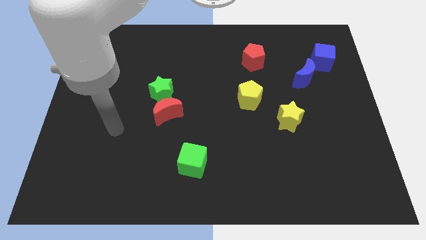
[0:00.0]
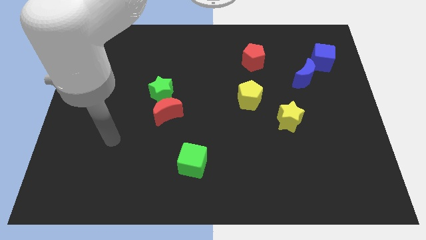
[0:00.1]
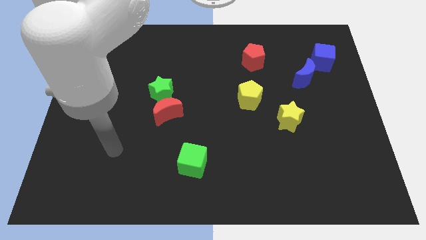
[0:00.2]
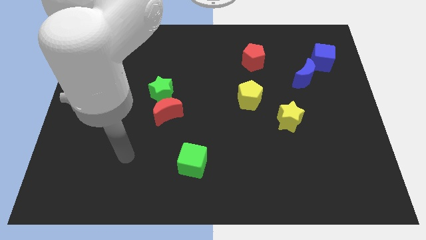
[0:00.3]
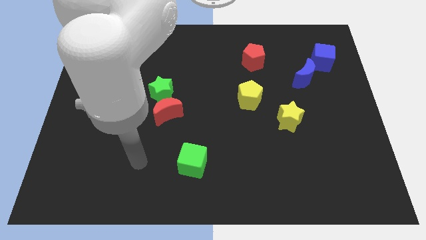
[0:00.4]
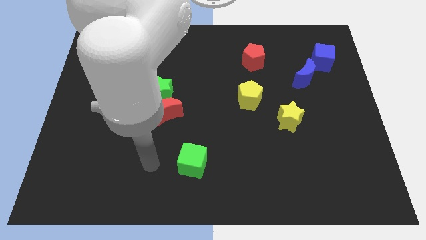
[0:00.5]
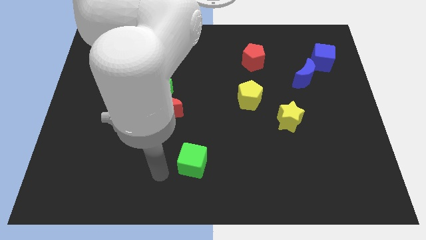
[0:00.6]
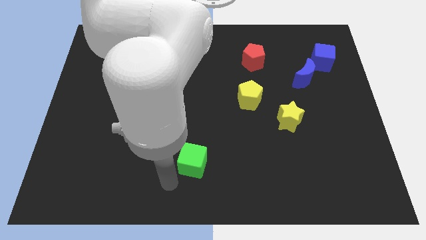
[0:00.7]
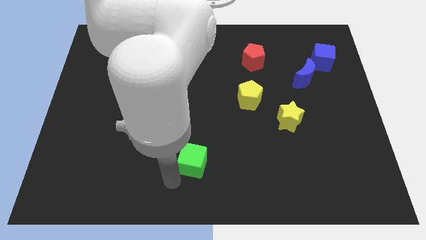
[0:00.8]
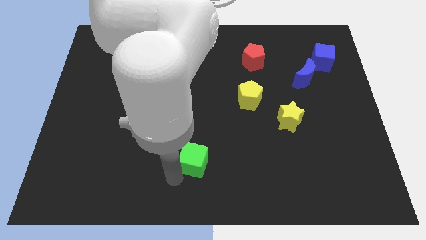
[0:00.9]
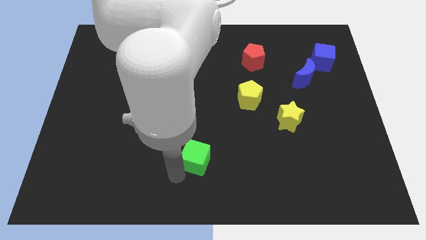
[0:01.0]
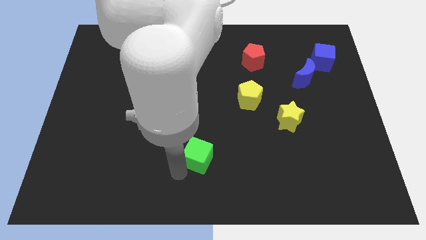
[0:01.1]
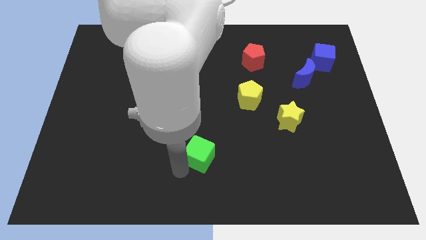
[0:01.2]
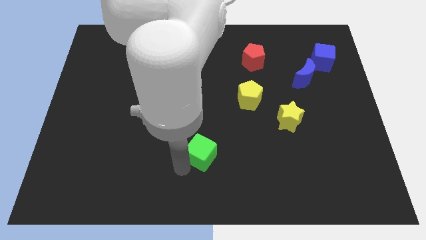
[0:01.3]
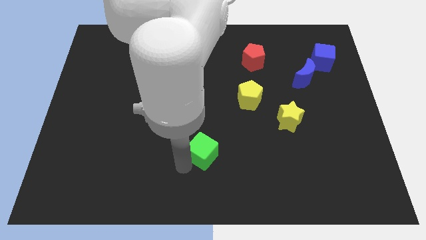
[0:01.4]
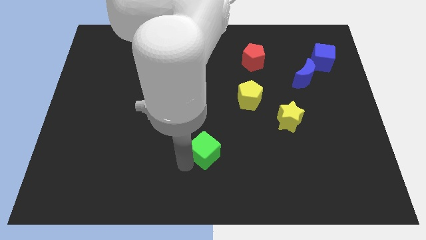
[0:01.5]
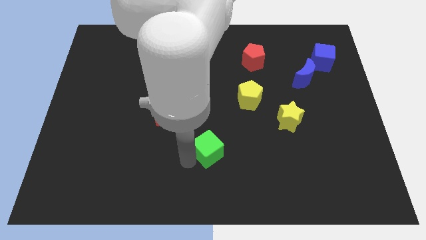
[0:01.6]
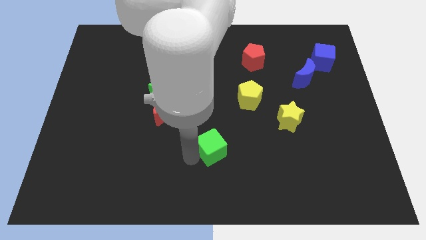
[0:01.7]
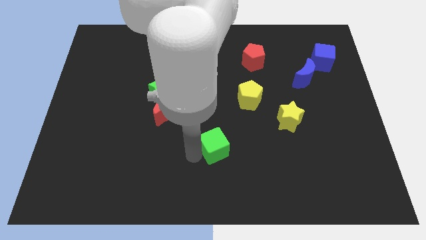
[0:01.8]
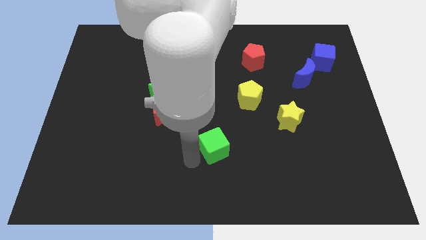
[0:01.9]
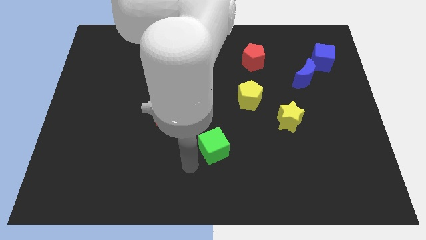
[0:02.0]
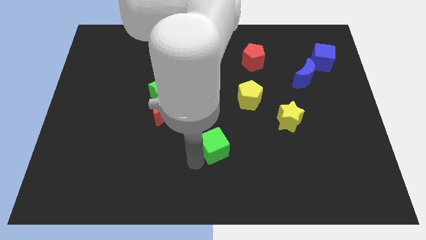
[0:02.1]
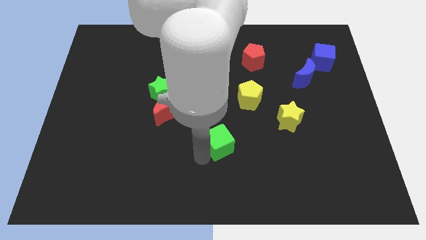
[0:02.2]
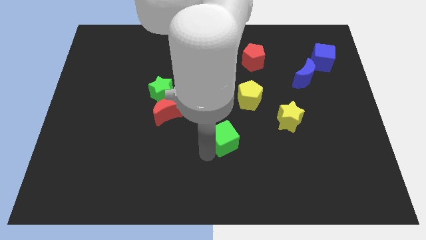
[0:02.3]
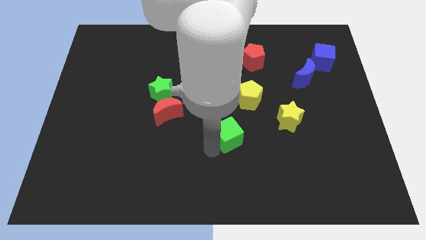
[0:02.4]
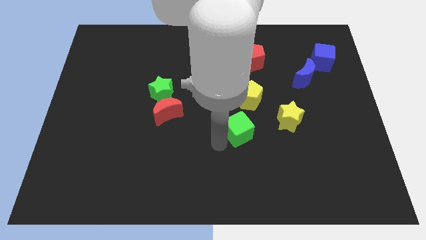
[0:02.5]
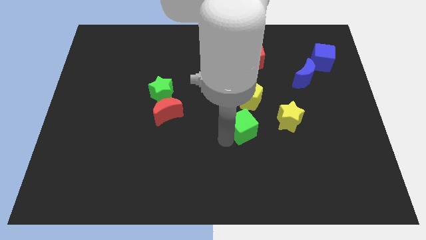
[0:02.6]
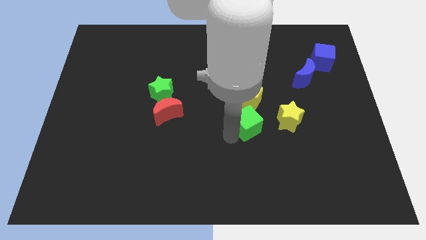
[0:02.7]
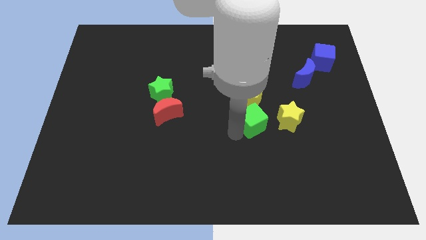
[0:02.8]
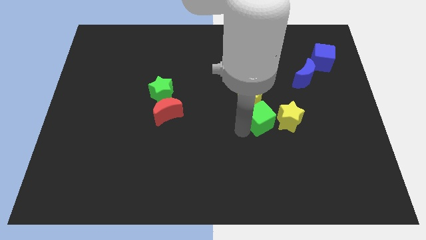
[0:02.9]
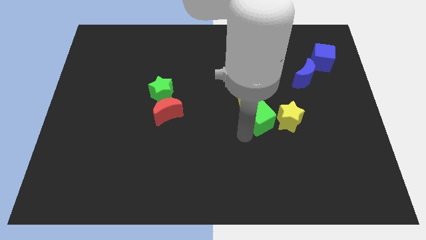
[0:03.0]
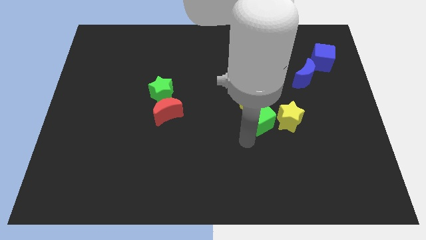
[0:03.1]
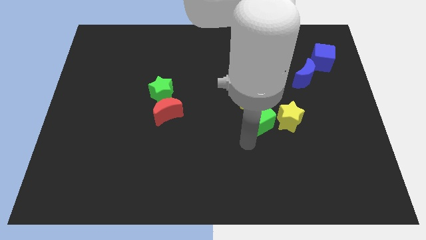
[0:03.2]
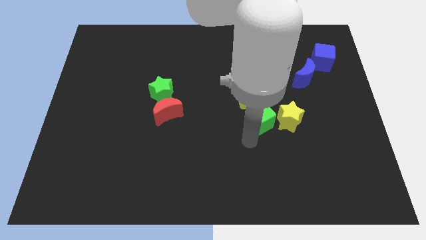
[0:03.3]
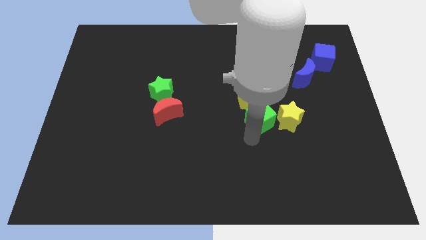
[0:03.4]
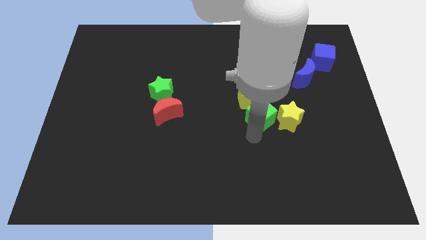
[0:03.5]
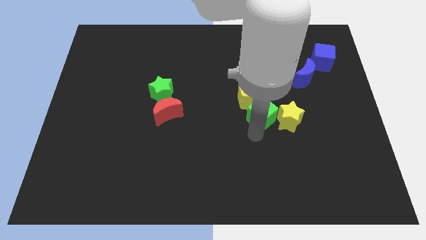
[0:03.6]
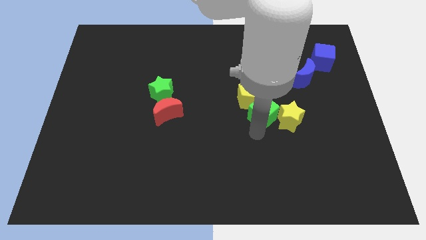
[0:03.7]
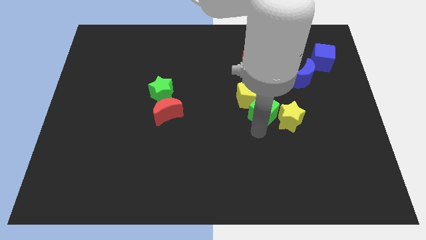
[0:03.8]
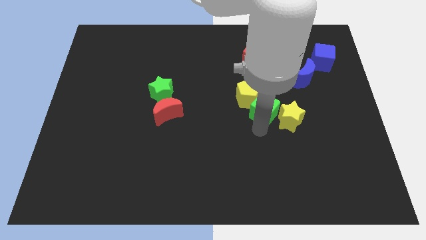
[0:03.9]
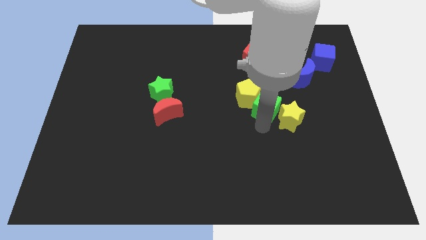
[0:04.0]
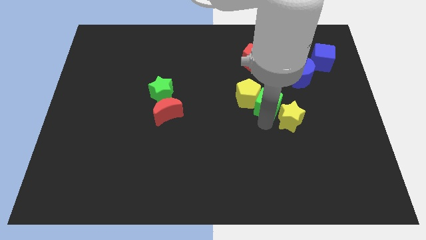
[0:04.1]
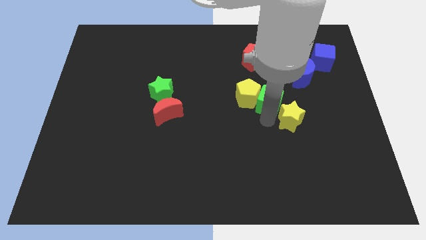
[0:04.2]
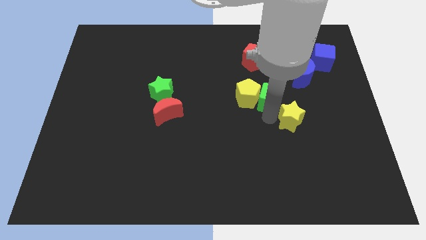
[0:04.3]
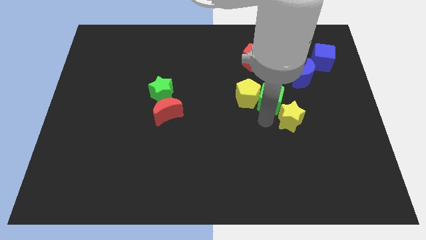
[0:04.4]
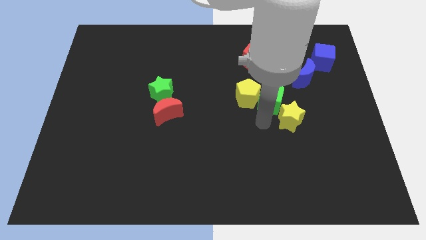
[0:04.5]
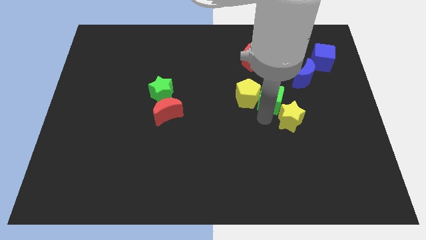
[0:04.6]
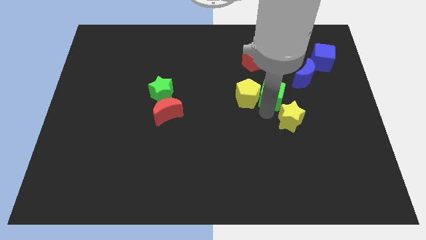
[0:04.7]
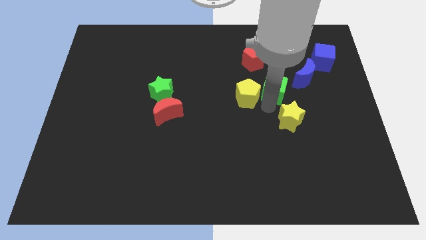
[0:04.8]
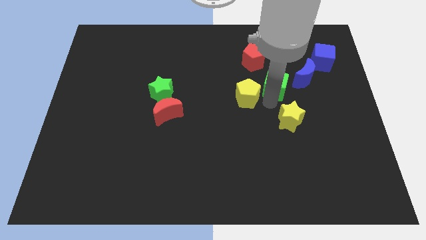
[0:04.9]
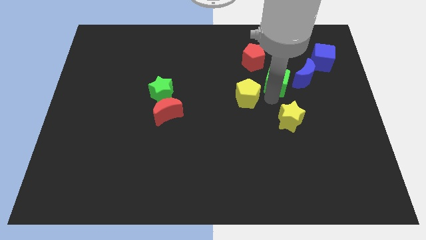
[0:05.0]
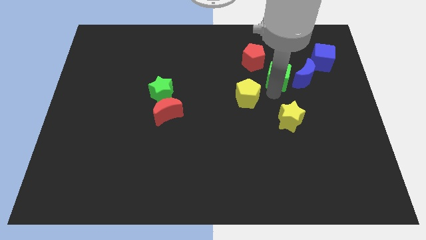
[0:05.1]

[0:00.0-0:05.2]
push the green cube to the top left of the blue moon

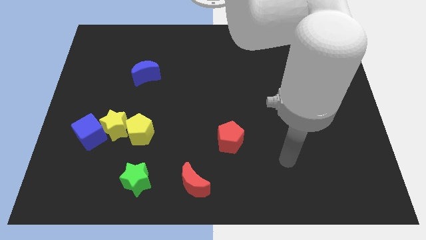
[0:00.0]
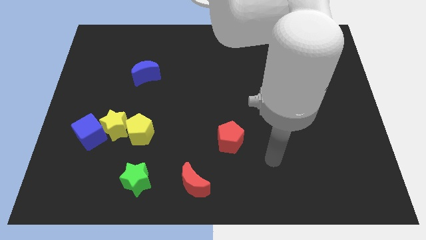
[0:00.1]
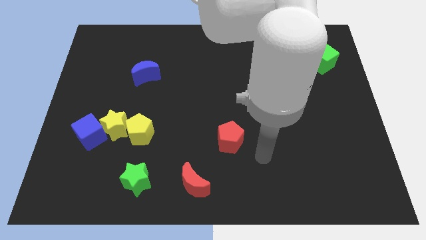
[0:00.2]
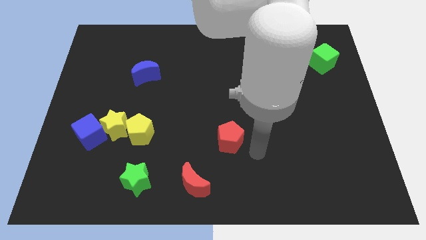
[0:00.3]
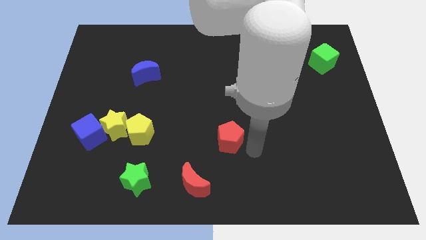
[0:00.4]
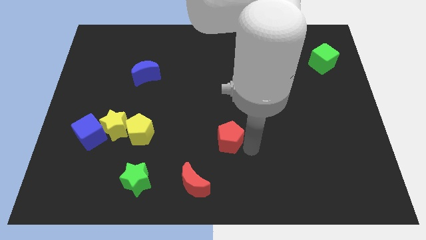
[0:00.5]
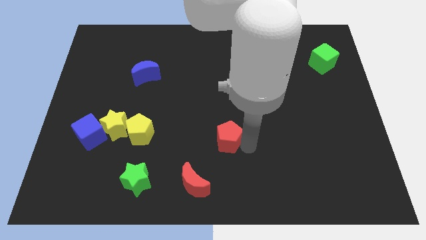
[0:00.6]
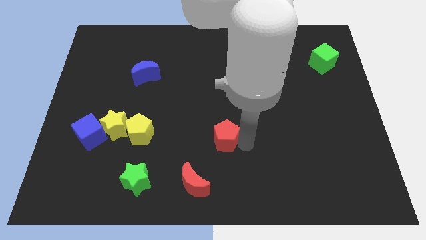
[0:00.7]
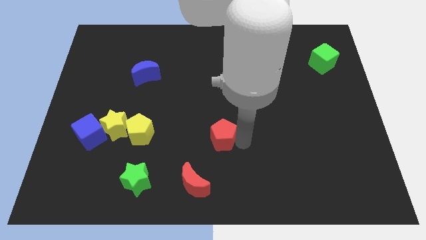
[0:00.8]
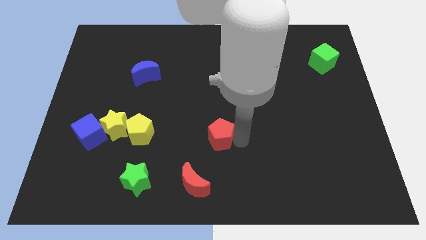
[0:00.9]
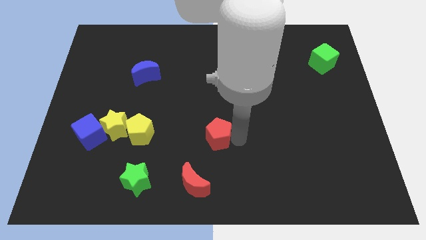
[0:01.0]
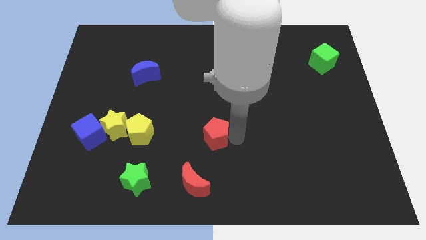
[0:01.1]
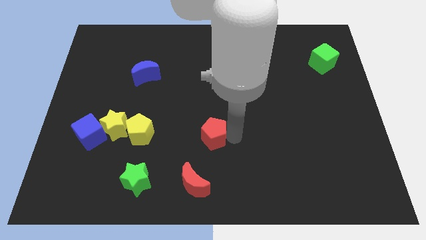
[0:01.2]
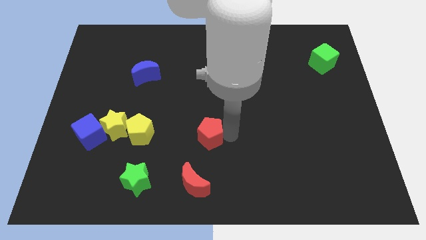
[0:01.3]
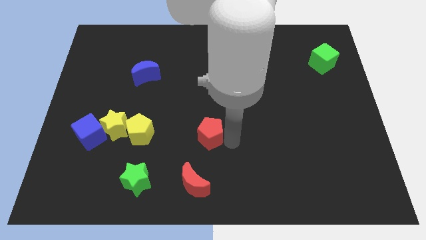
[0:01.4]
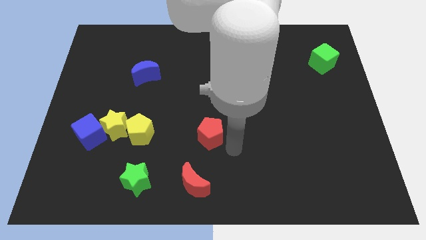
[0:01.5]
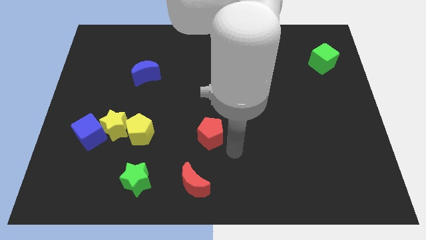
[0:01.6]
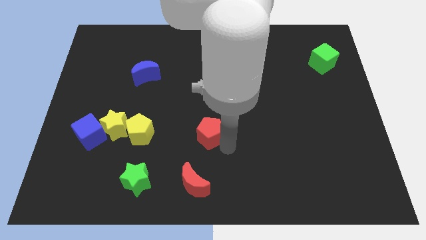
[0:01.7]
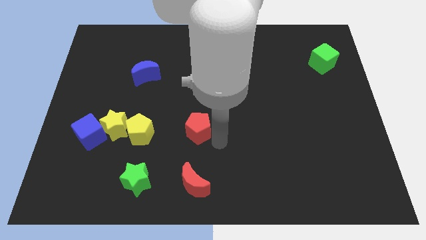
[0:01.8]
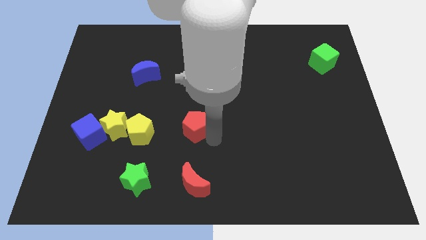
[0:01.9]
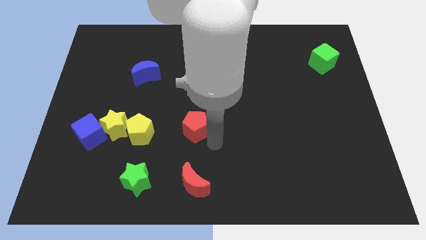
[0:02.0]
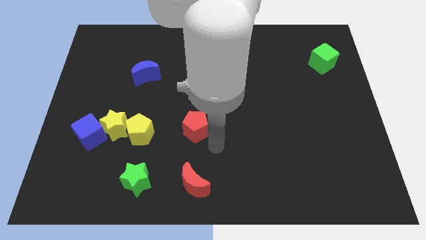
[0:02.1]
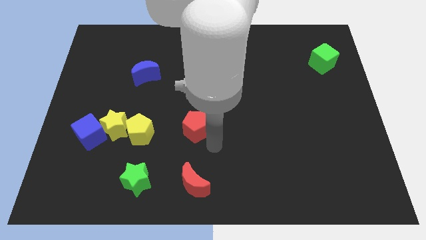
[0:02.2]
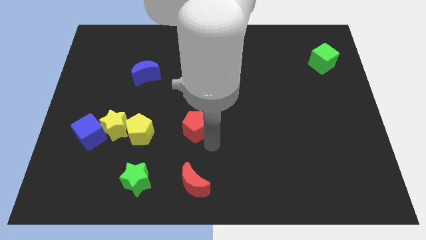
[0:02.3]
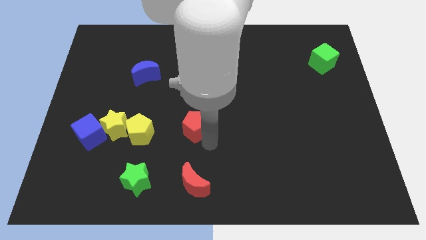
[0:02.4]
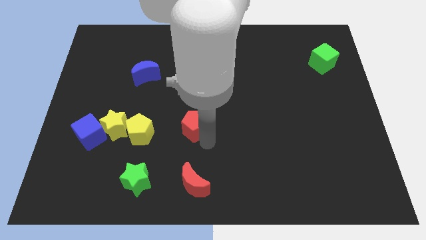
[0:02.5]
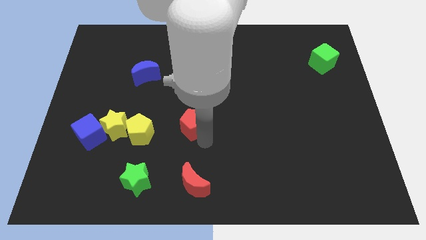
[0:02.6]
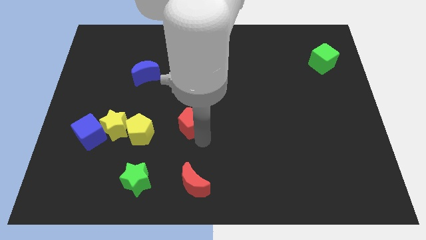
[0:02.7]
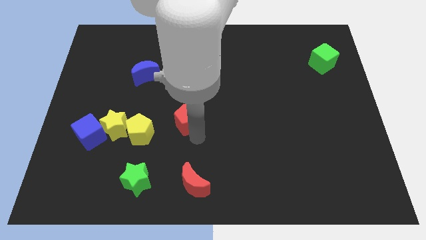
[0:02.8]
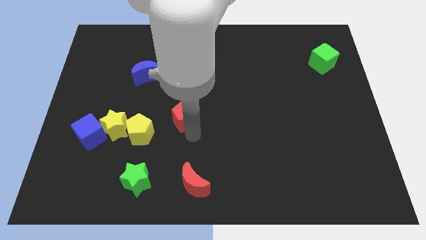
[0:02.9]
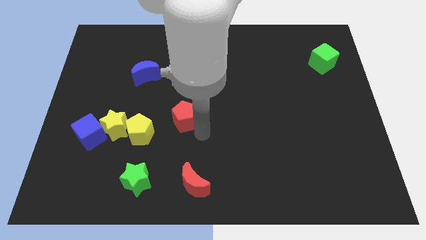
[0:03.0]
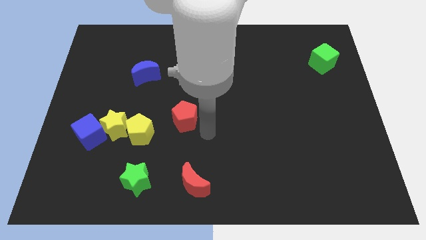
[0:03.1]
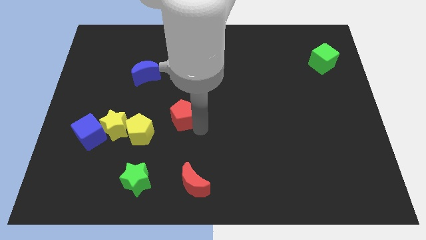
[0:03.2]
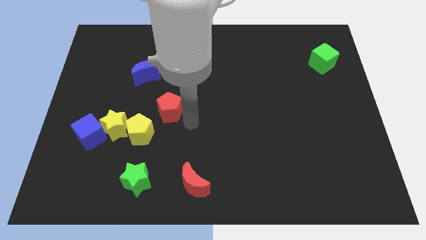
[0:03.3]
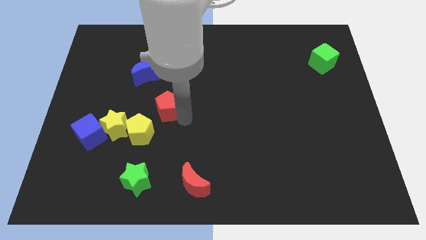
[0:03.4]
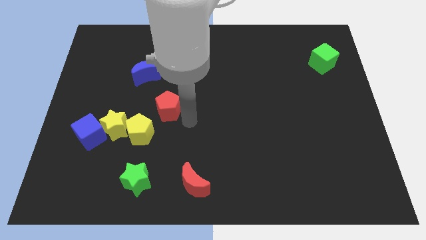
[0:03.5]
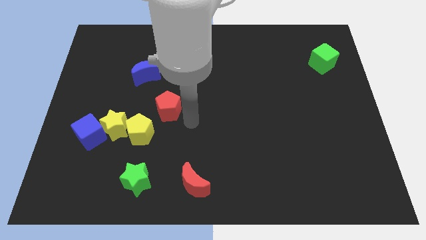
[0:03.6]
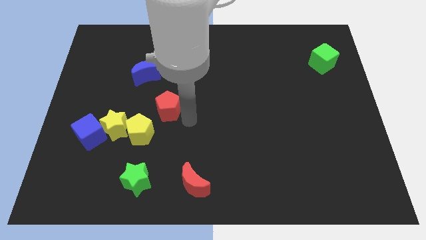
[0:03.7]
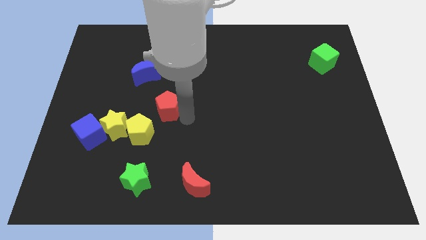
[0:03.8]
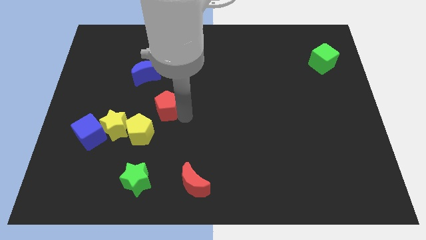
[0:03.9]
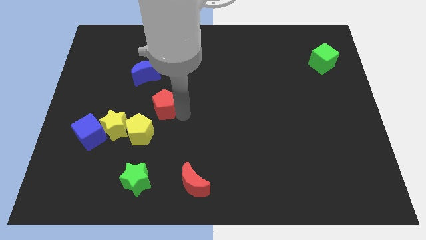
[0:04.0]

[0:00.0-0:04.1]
push the red pentagon above the yellow pentagon
